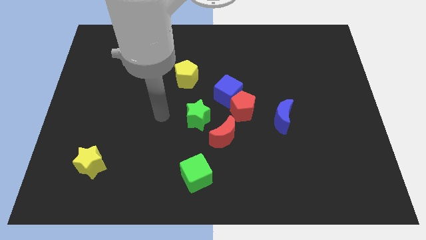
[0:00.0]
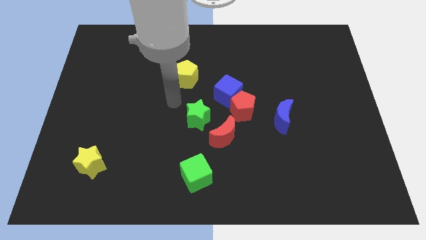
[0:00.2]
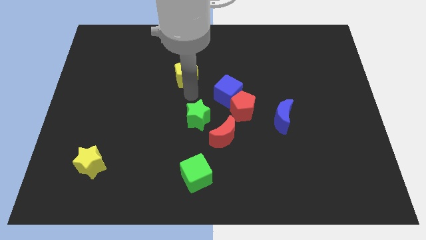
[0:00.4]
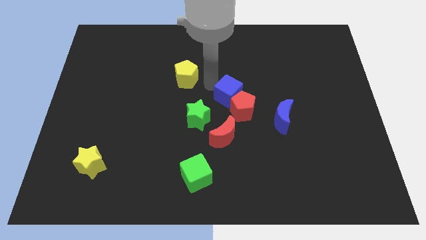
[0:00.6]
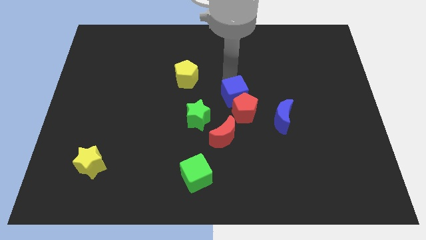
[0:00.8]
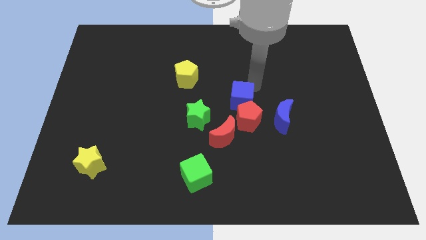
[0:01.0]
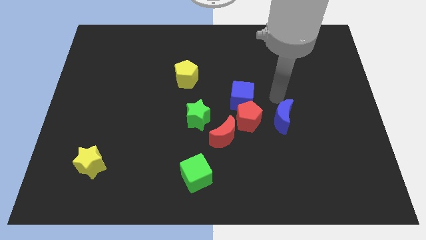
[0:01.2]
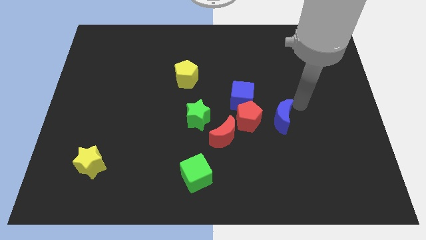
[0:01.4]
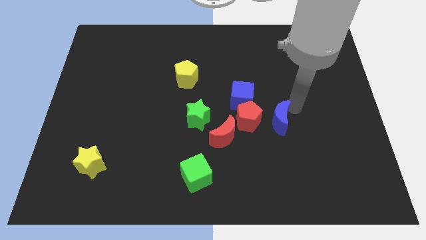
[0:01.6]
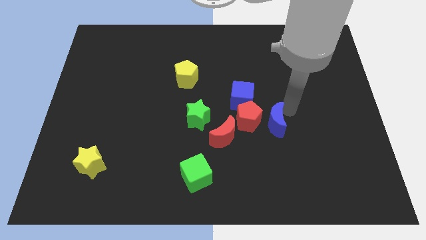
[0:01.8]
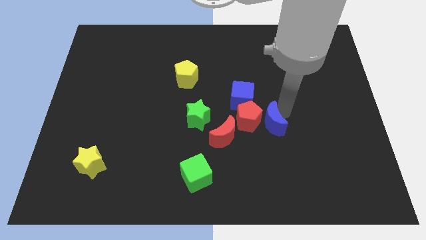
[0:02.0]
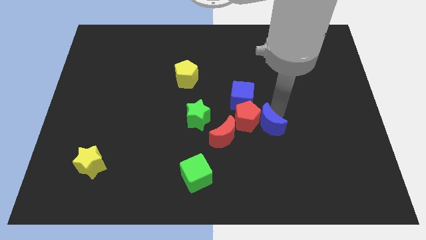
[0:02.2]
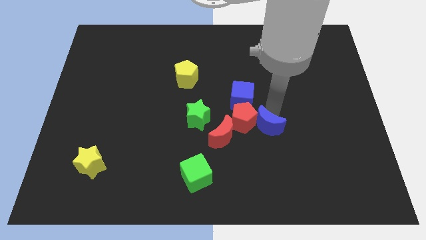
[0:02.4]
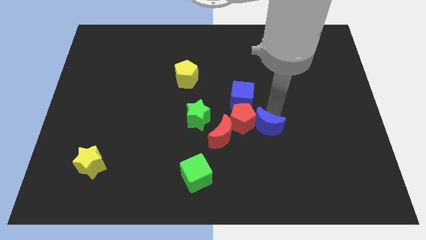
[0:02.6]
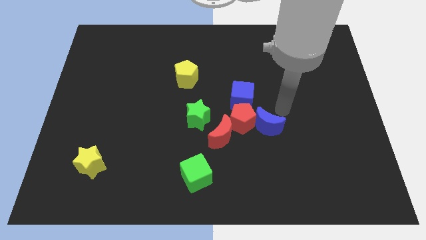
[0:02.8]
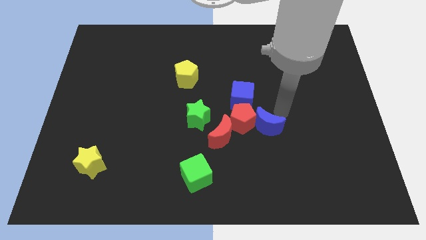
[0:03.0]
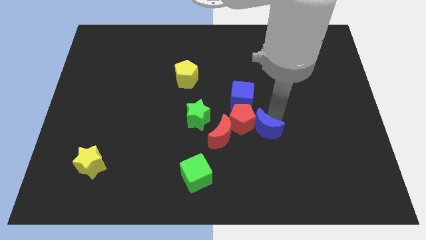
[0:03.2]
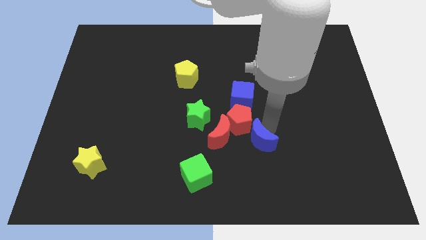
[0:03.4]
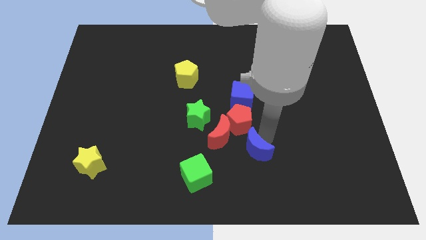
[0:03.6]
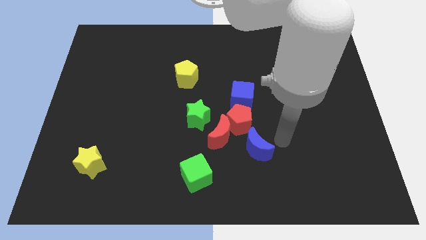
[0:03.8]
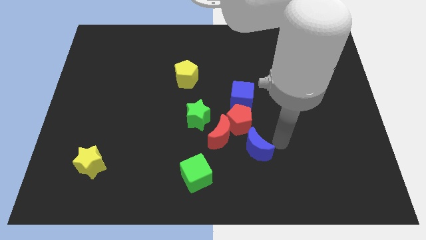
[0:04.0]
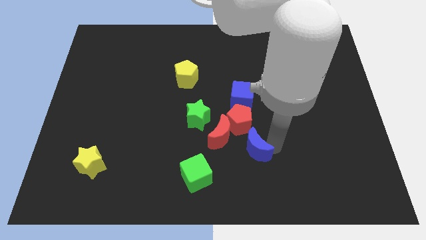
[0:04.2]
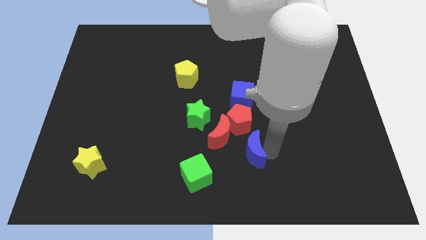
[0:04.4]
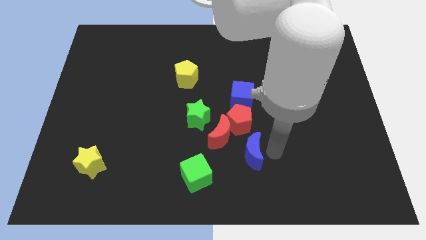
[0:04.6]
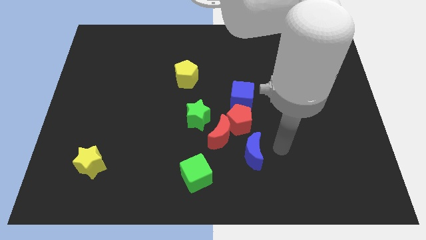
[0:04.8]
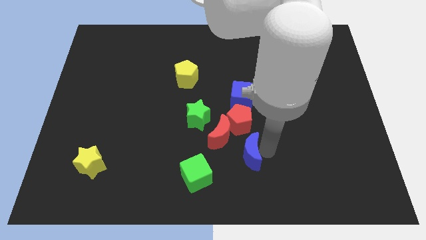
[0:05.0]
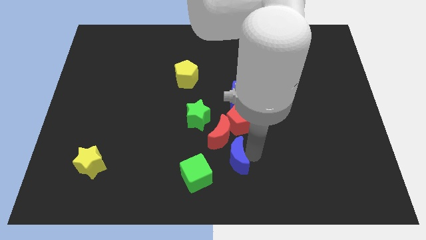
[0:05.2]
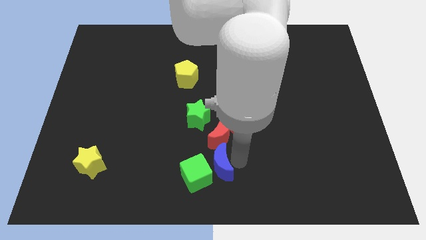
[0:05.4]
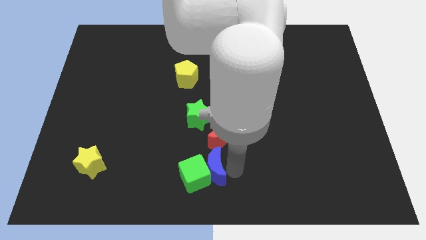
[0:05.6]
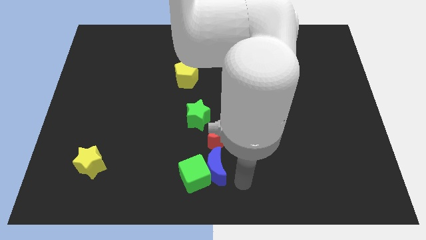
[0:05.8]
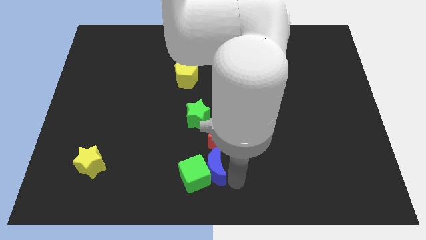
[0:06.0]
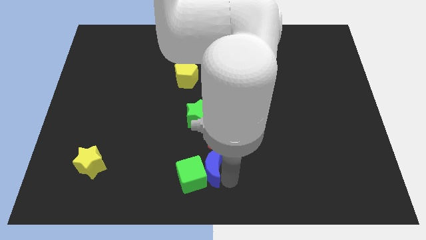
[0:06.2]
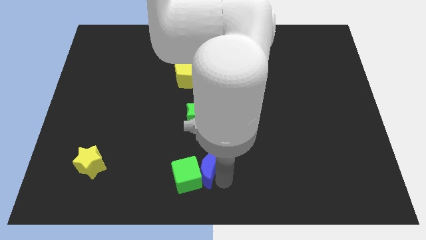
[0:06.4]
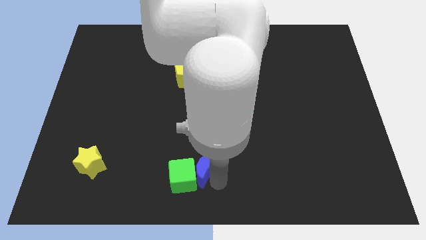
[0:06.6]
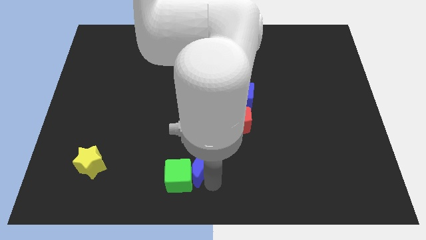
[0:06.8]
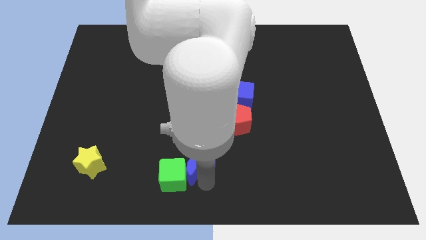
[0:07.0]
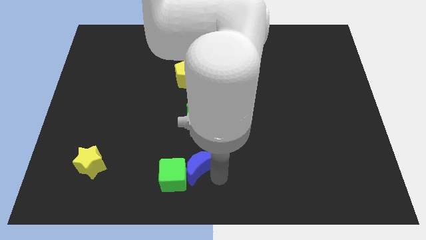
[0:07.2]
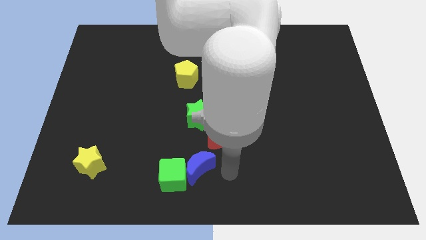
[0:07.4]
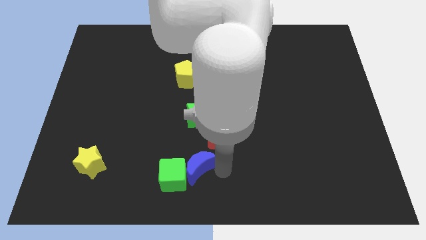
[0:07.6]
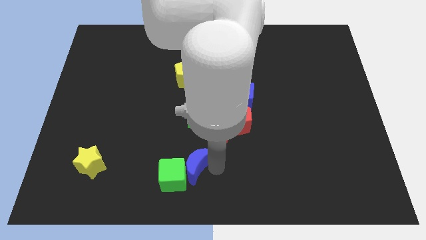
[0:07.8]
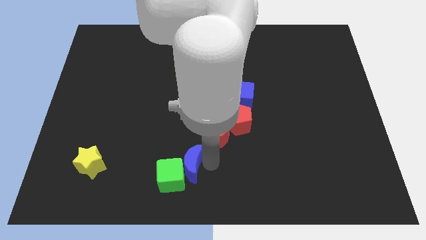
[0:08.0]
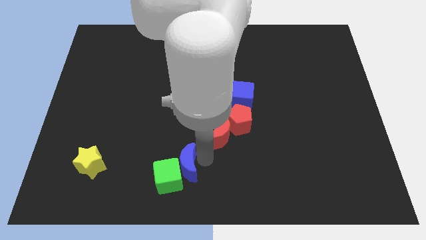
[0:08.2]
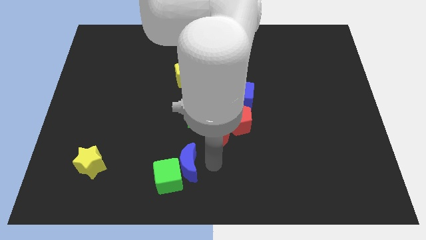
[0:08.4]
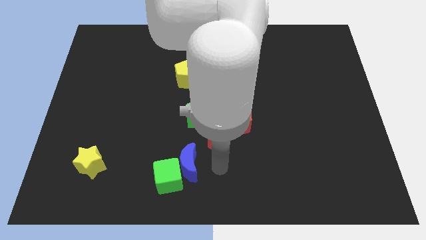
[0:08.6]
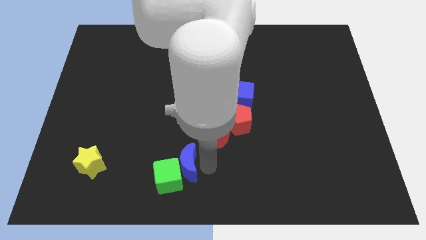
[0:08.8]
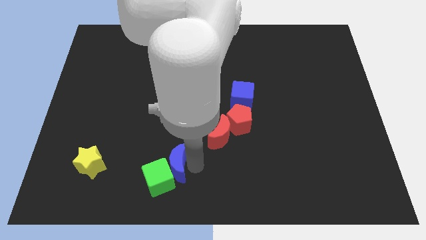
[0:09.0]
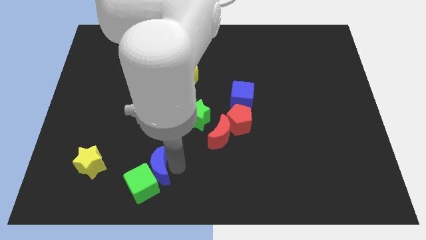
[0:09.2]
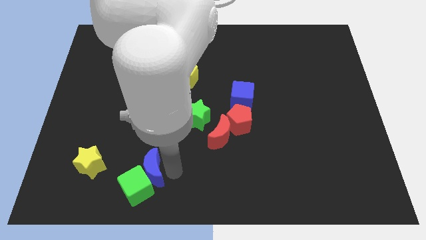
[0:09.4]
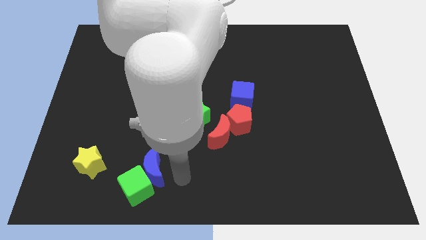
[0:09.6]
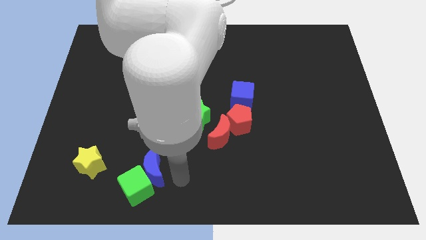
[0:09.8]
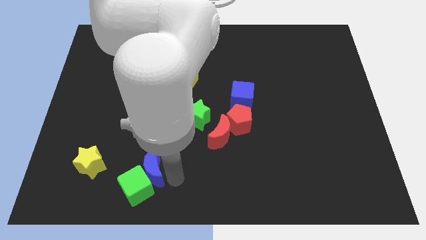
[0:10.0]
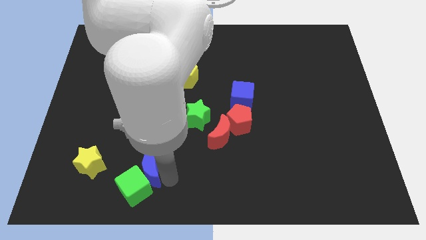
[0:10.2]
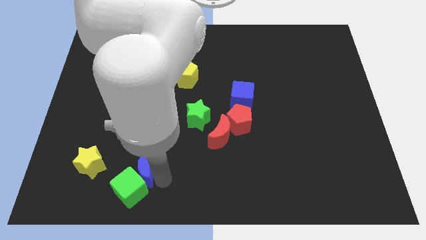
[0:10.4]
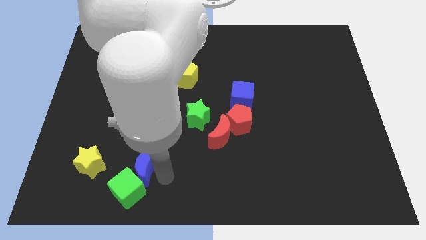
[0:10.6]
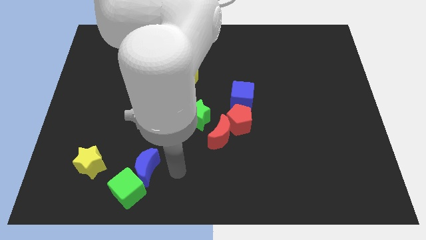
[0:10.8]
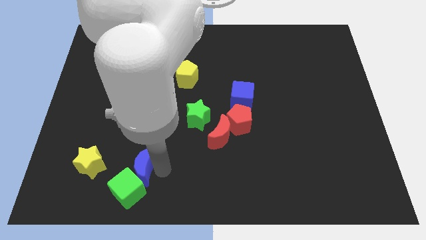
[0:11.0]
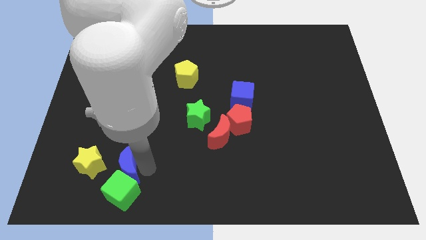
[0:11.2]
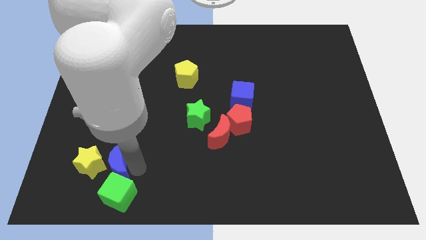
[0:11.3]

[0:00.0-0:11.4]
put the blue moon next to the yellow star
